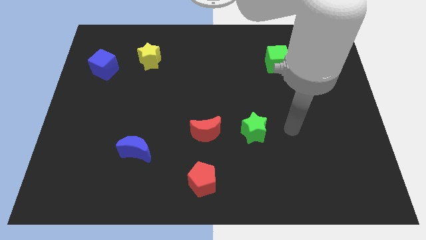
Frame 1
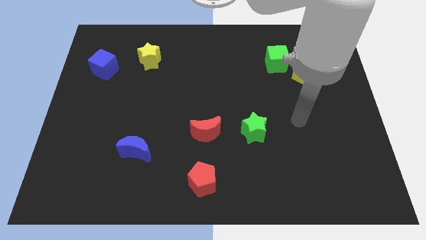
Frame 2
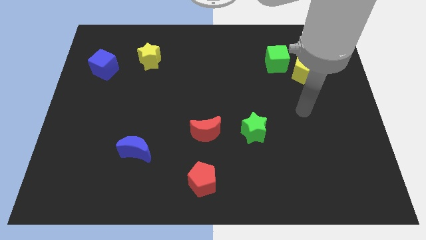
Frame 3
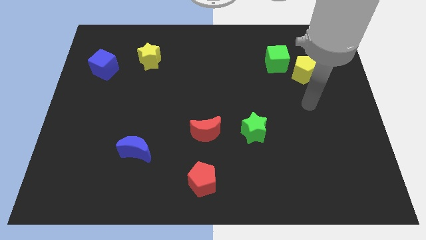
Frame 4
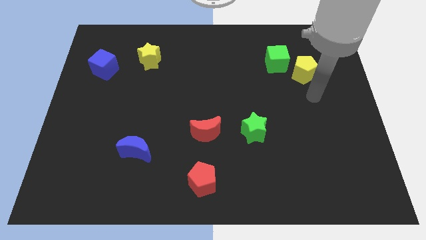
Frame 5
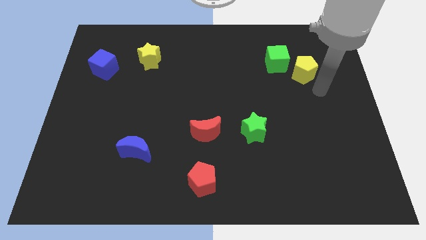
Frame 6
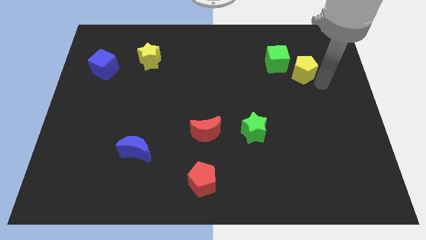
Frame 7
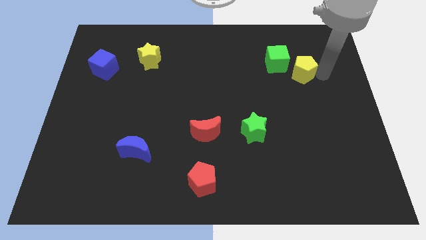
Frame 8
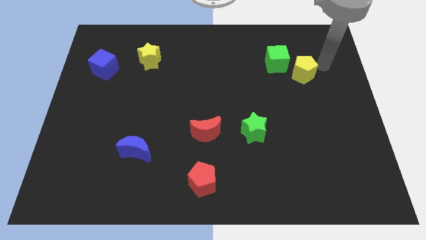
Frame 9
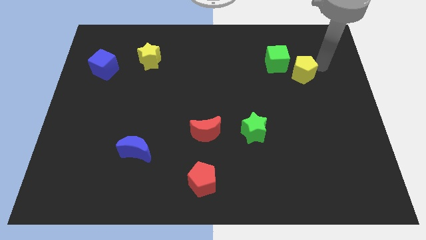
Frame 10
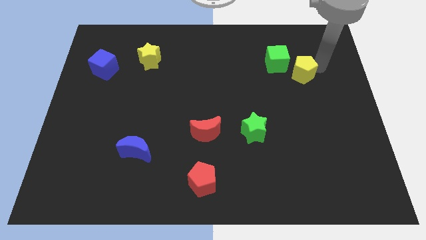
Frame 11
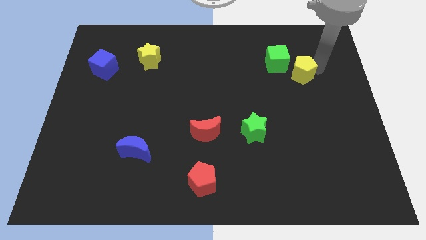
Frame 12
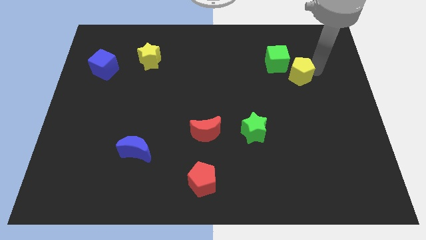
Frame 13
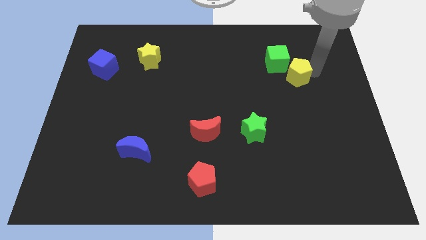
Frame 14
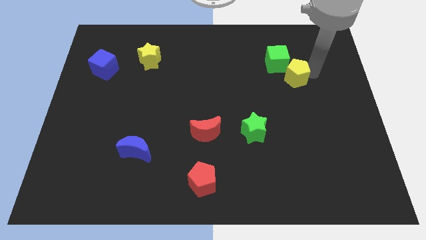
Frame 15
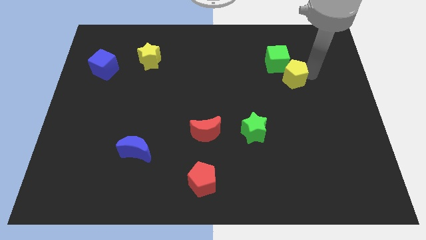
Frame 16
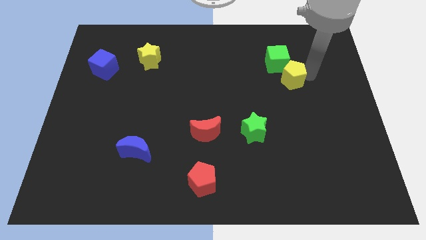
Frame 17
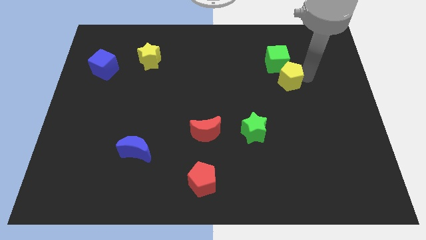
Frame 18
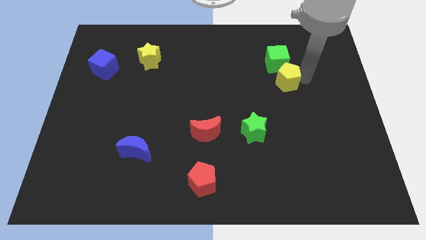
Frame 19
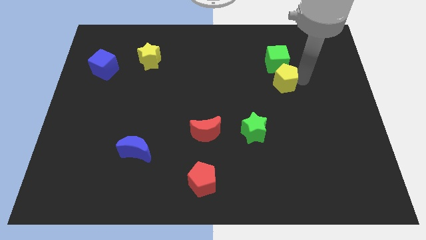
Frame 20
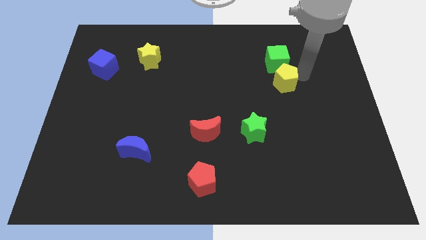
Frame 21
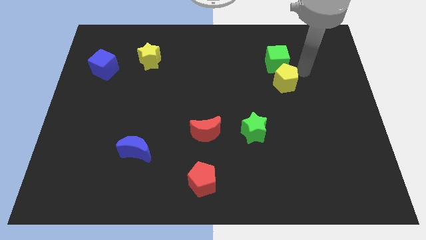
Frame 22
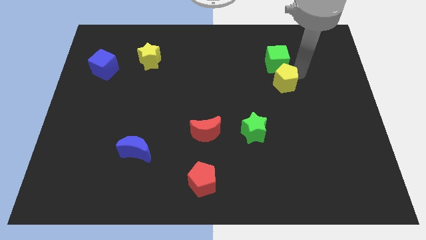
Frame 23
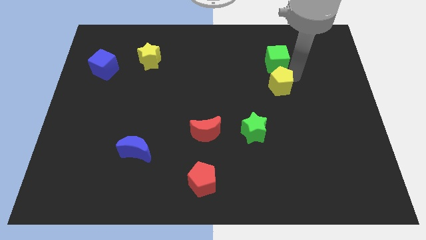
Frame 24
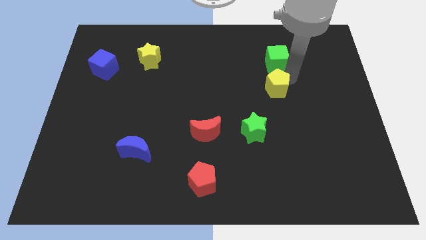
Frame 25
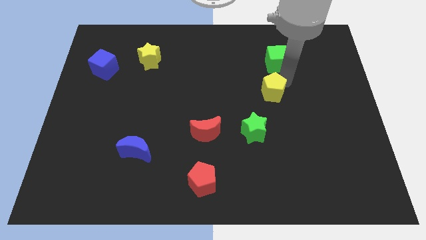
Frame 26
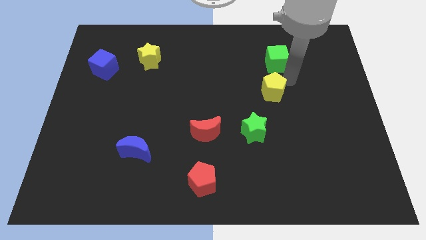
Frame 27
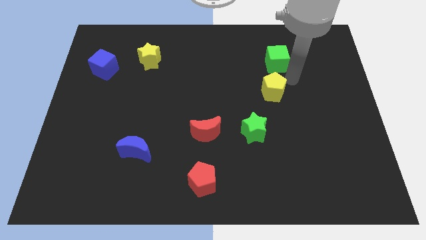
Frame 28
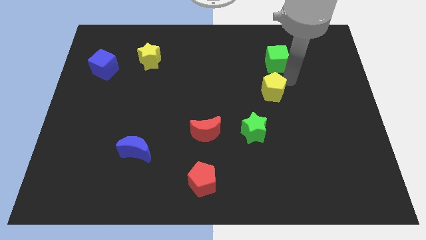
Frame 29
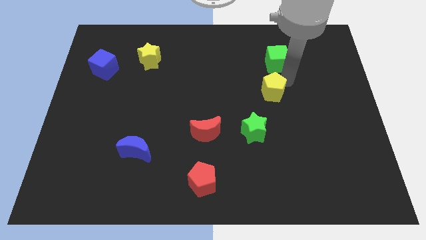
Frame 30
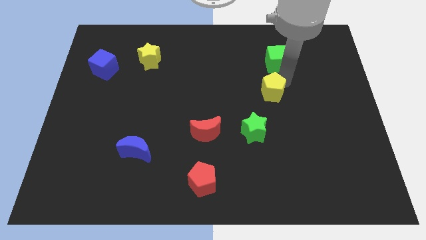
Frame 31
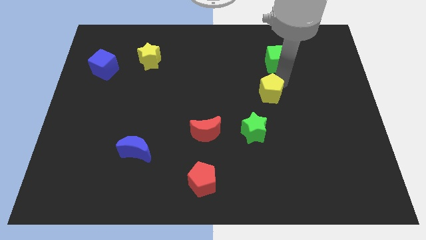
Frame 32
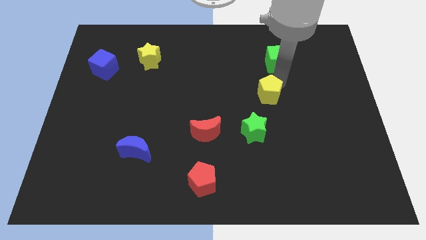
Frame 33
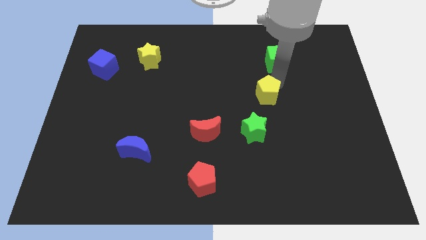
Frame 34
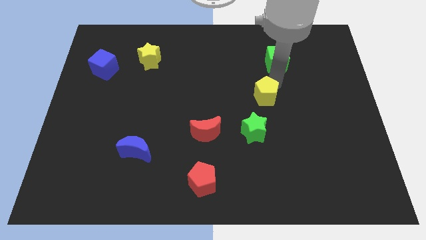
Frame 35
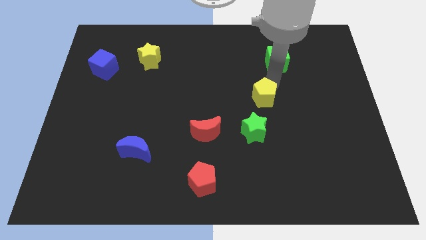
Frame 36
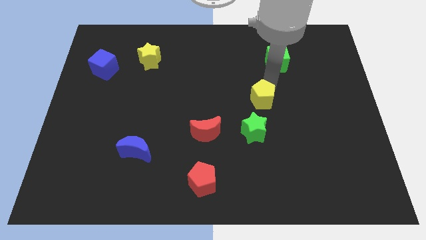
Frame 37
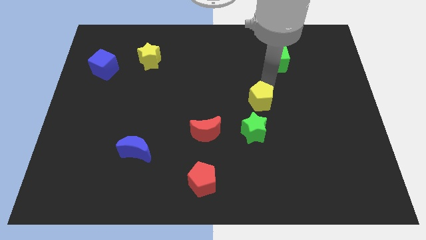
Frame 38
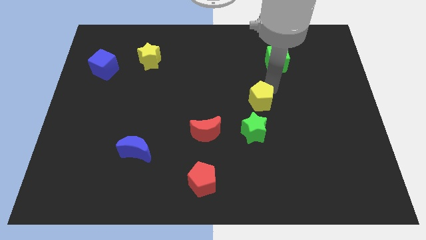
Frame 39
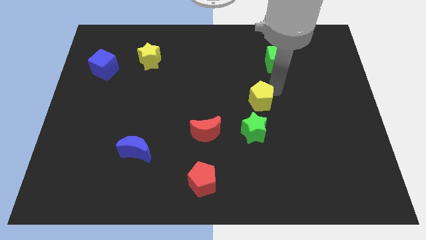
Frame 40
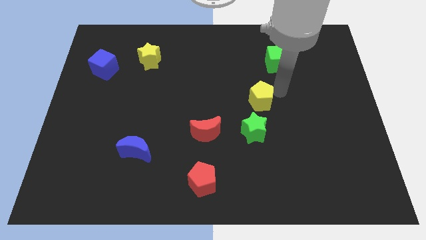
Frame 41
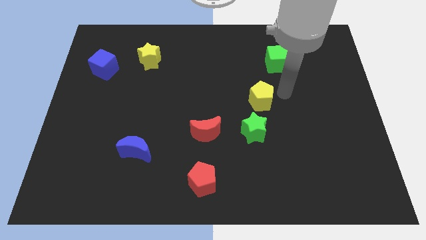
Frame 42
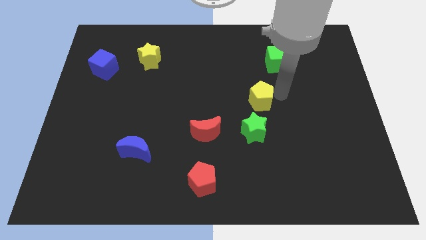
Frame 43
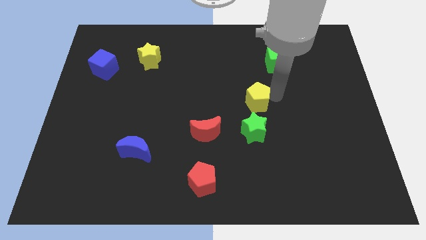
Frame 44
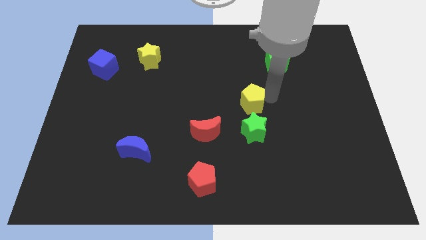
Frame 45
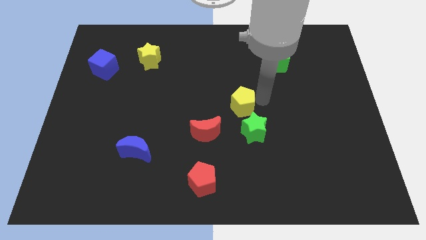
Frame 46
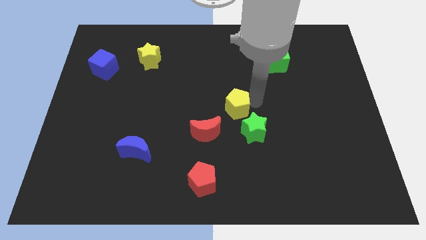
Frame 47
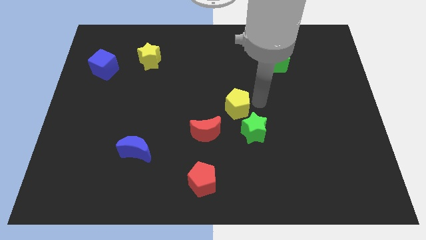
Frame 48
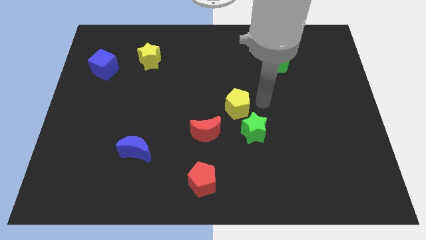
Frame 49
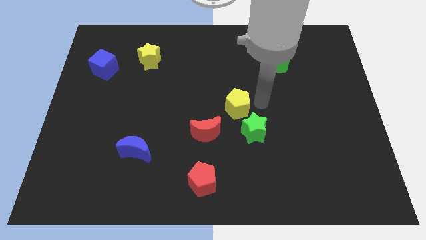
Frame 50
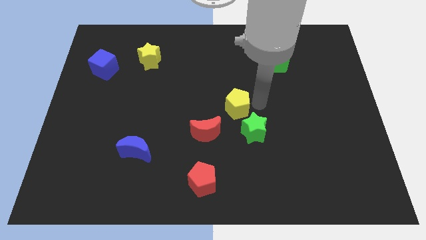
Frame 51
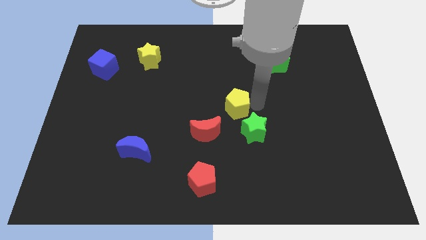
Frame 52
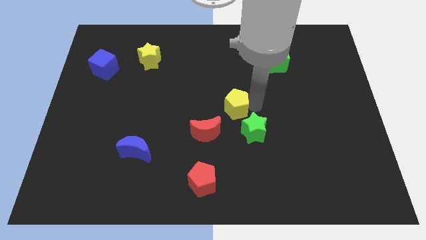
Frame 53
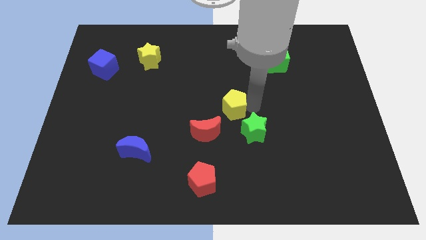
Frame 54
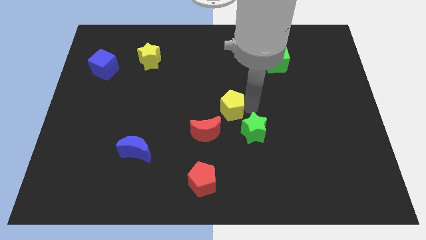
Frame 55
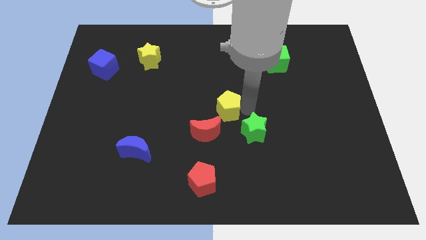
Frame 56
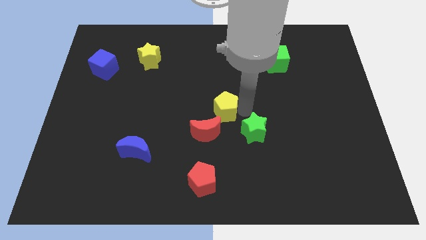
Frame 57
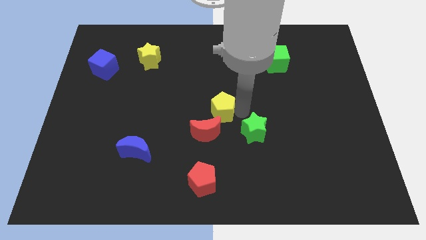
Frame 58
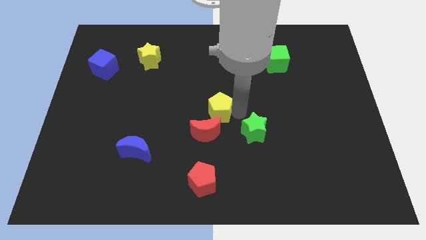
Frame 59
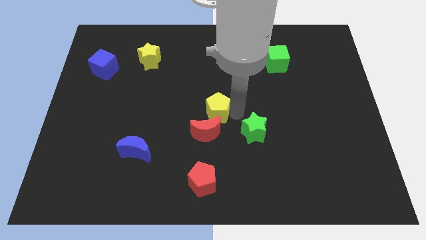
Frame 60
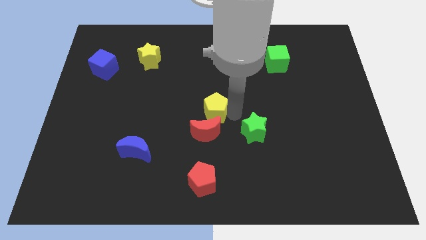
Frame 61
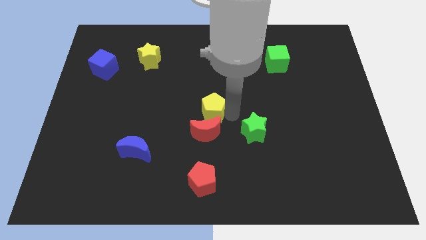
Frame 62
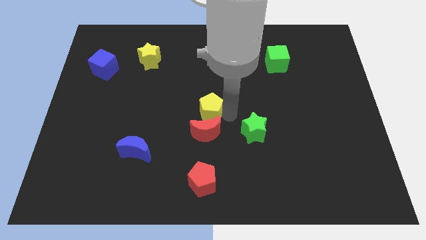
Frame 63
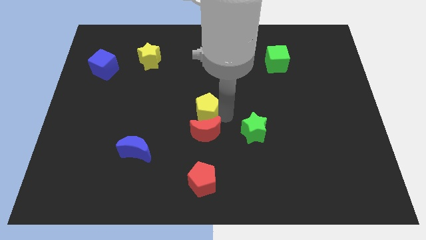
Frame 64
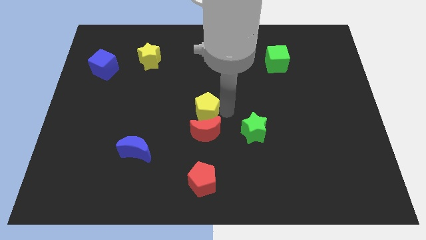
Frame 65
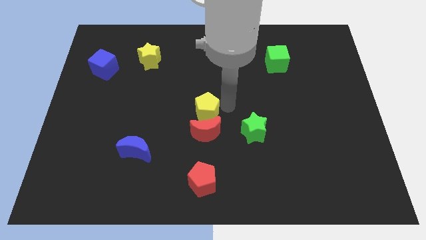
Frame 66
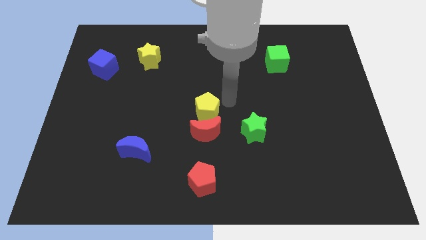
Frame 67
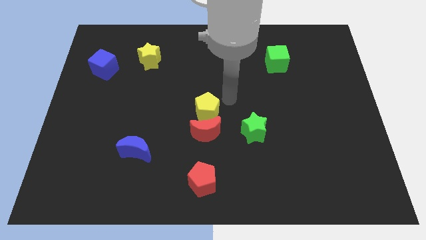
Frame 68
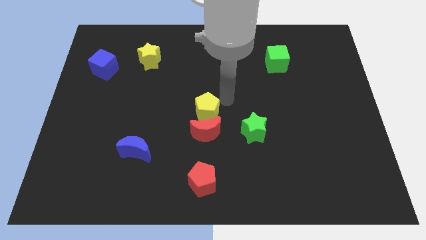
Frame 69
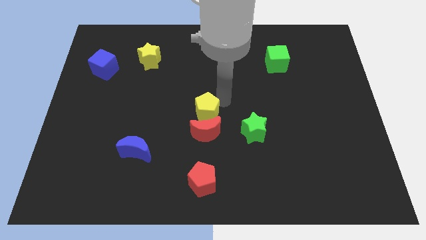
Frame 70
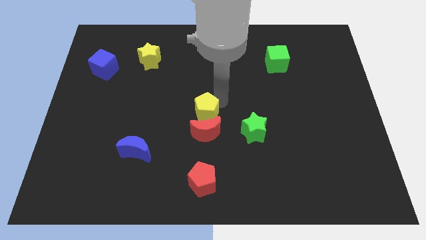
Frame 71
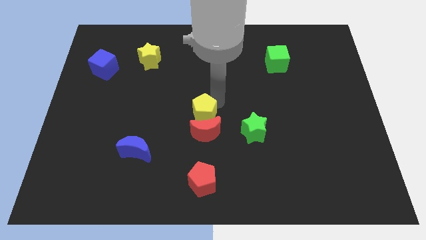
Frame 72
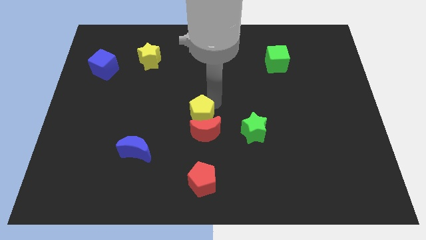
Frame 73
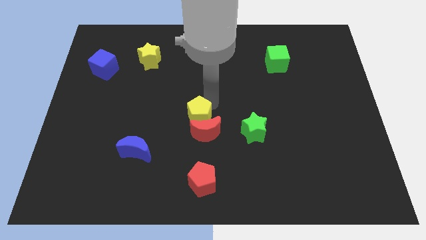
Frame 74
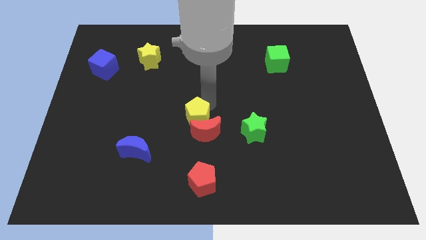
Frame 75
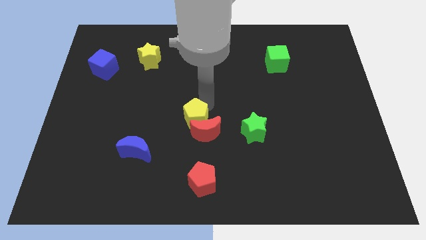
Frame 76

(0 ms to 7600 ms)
slide the yellow pentagon left of the red moon

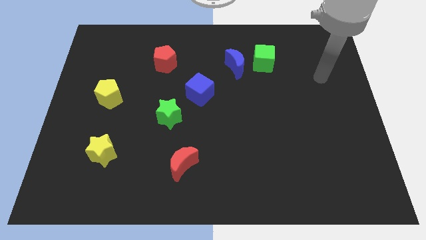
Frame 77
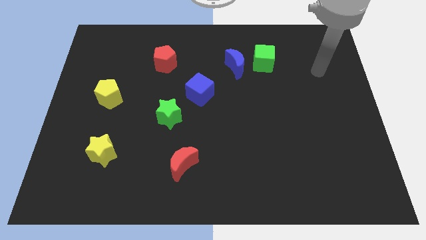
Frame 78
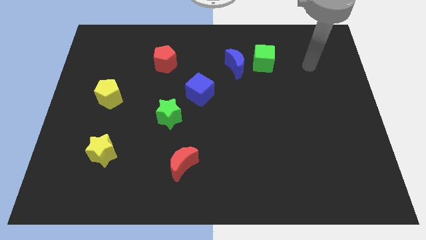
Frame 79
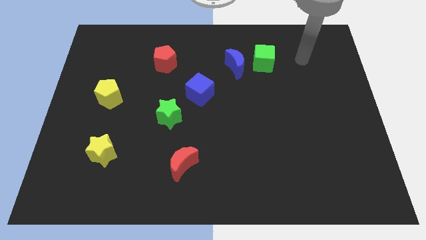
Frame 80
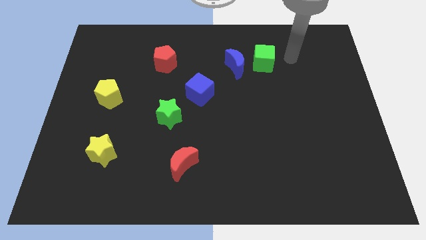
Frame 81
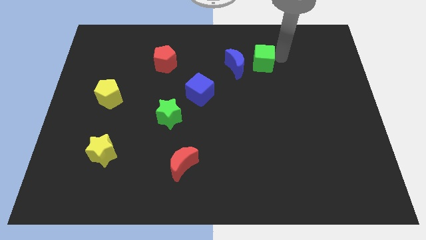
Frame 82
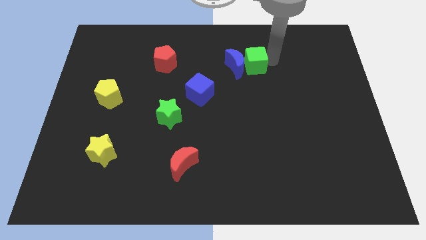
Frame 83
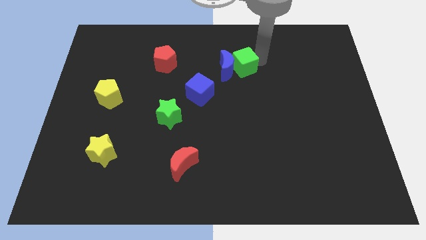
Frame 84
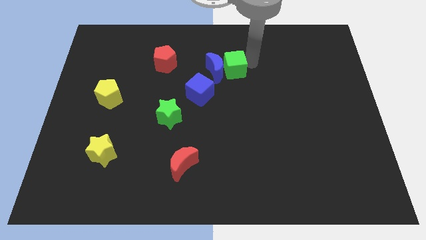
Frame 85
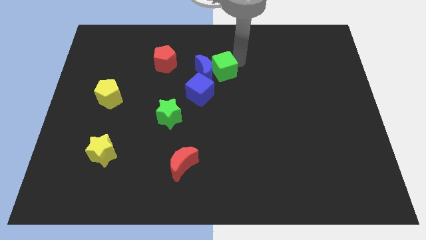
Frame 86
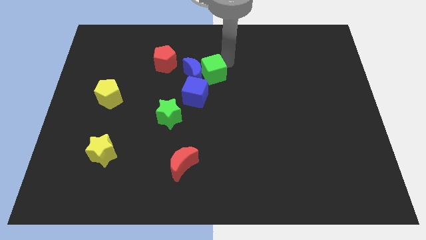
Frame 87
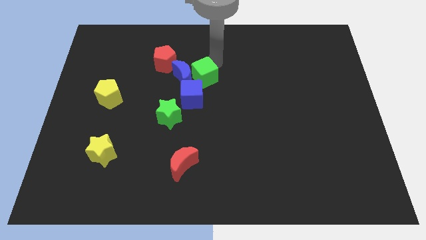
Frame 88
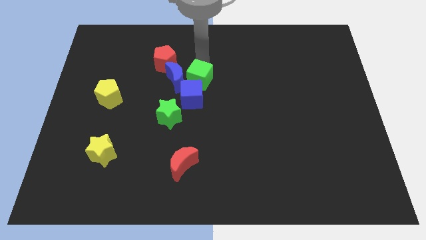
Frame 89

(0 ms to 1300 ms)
push the blue moon to the bottom of the red pentagon
